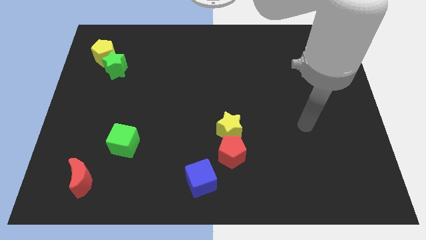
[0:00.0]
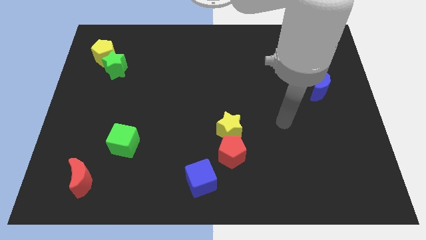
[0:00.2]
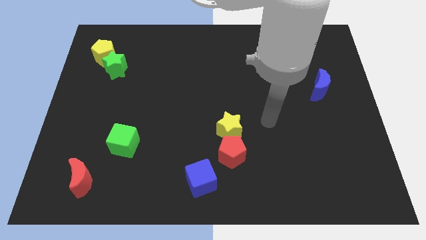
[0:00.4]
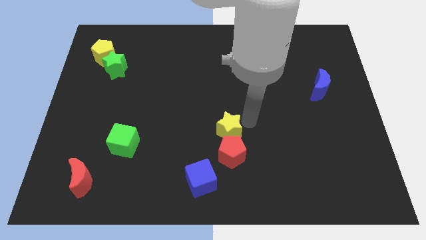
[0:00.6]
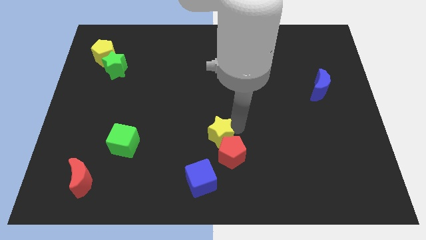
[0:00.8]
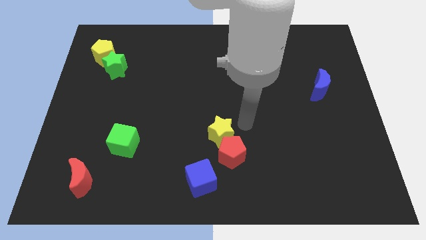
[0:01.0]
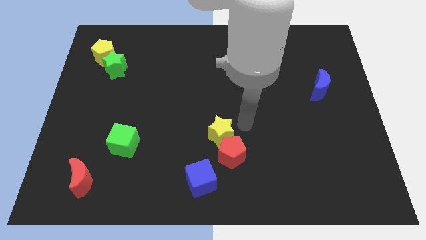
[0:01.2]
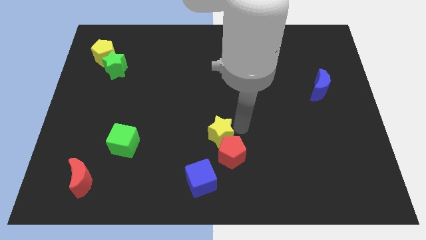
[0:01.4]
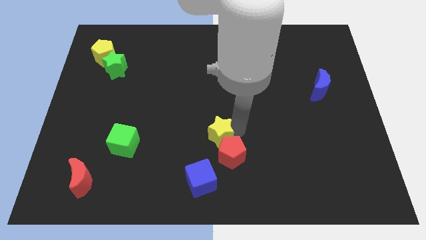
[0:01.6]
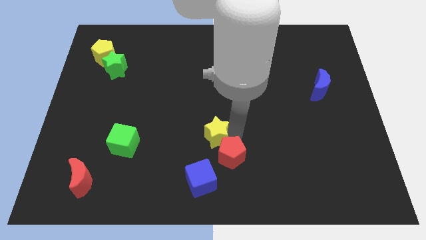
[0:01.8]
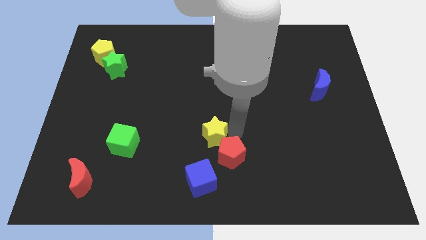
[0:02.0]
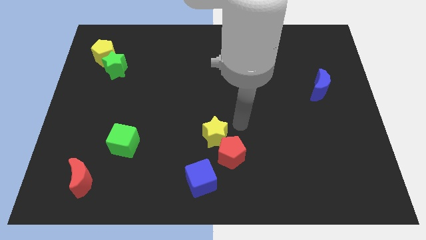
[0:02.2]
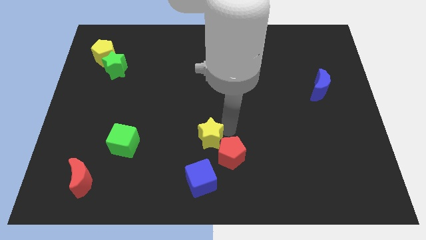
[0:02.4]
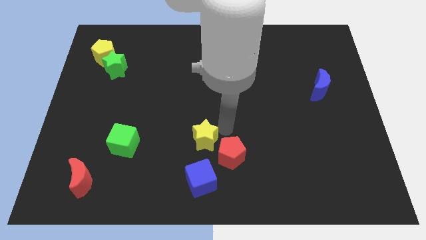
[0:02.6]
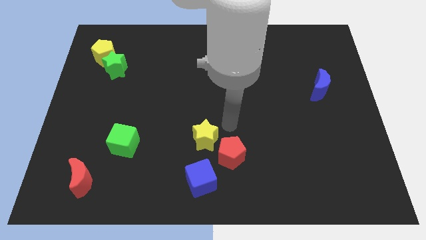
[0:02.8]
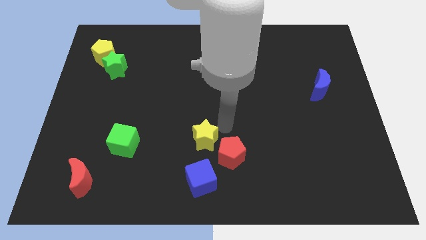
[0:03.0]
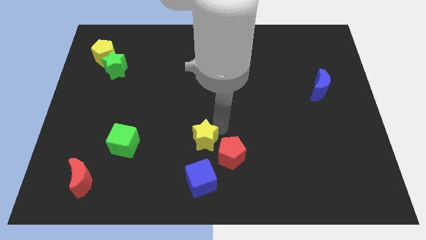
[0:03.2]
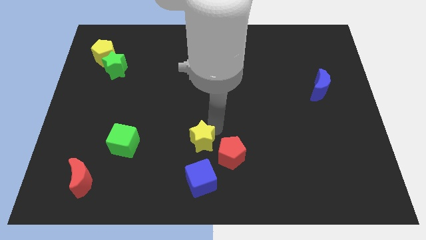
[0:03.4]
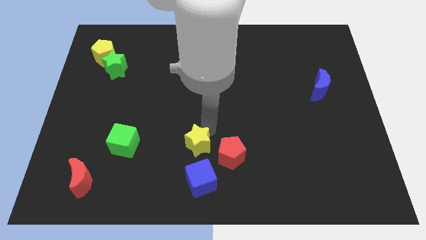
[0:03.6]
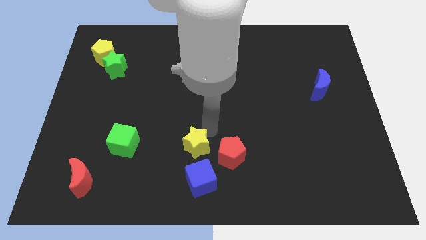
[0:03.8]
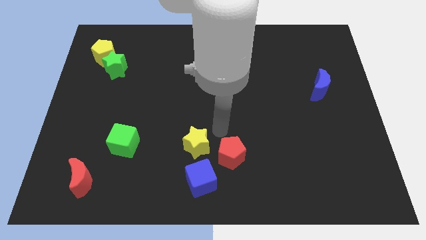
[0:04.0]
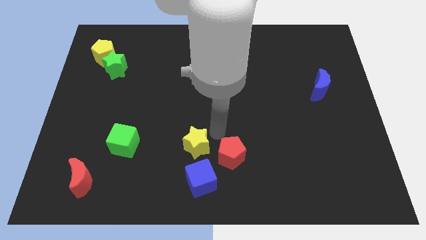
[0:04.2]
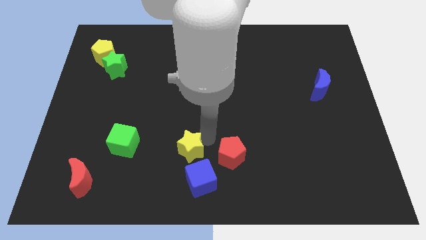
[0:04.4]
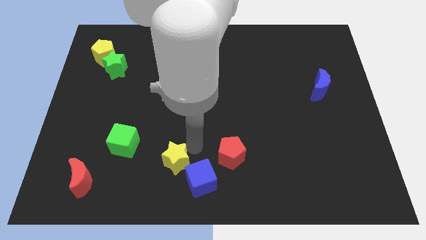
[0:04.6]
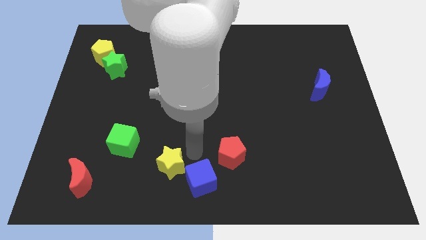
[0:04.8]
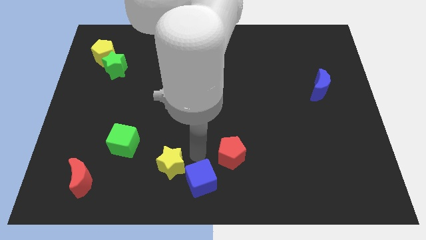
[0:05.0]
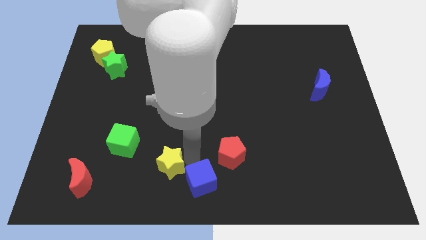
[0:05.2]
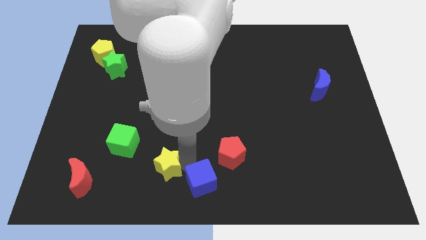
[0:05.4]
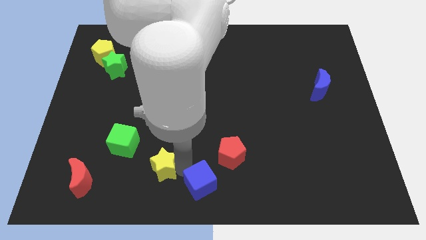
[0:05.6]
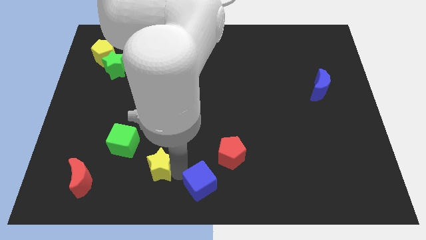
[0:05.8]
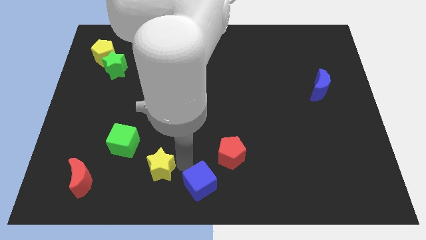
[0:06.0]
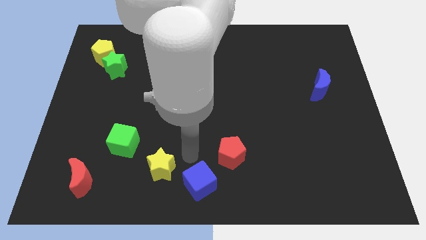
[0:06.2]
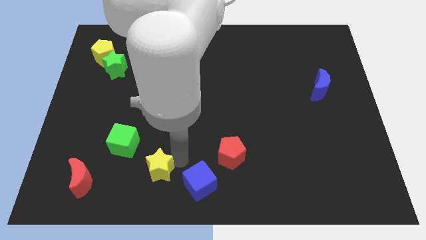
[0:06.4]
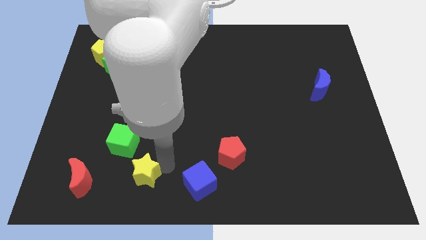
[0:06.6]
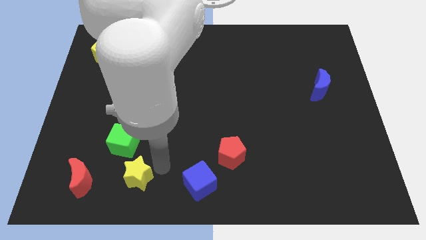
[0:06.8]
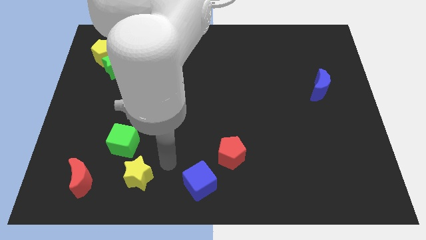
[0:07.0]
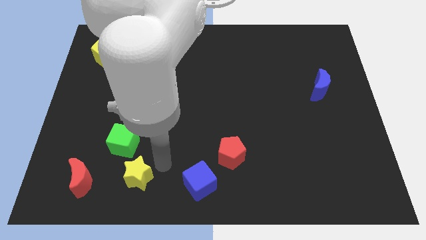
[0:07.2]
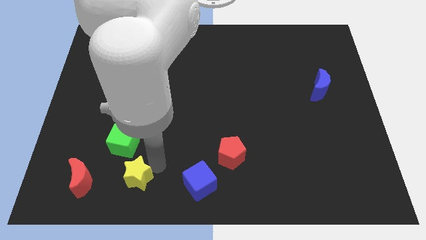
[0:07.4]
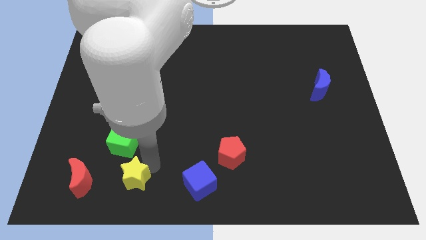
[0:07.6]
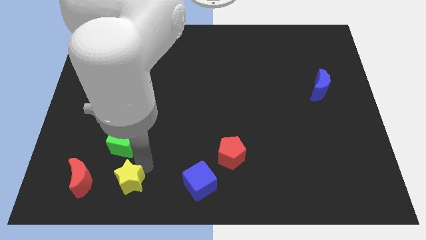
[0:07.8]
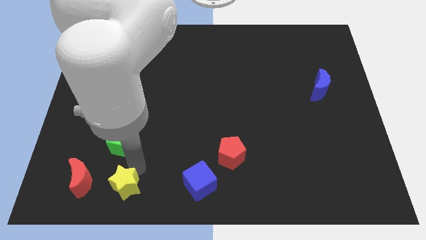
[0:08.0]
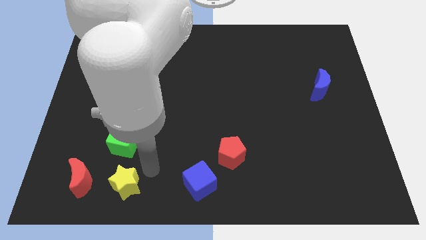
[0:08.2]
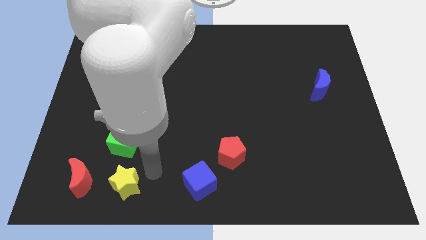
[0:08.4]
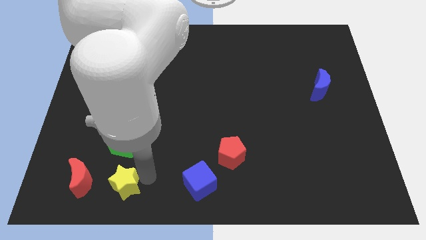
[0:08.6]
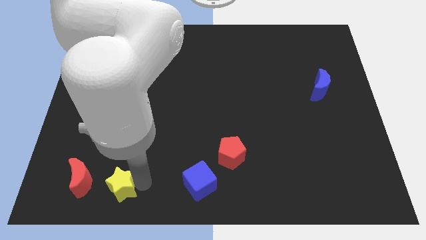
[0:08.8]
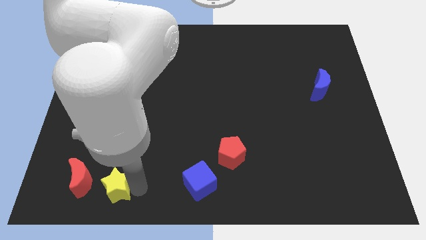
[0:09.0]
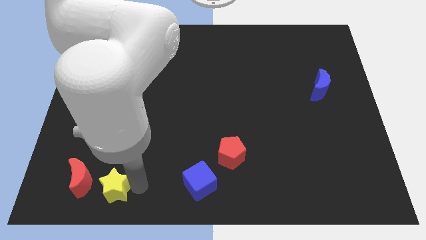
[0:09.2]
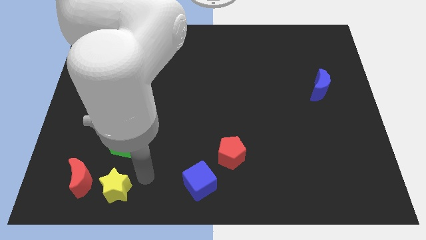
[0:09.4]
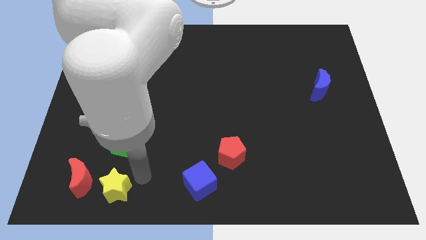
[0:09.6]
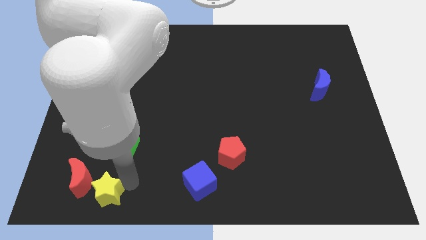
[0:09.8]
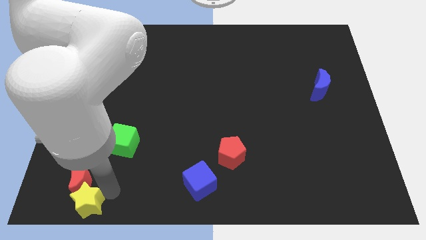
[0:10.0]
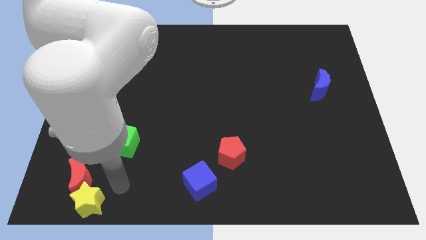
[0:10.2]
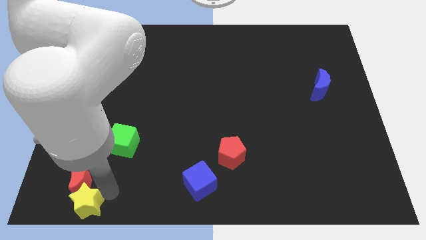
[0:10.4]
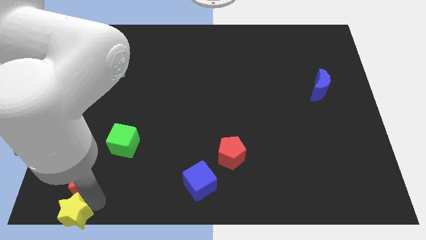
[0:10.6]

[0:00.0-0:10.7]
put the yellow star to the lower left corner
